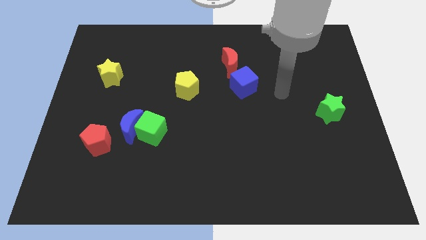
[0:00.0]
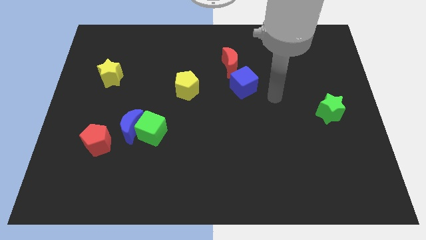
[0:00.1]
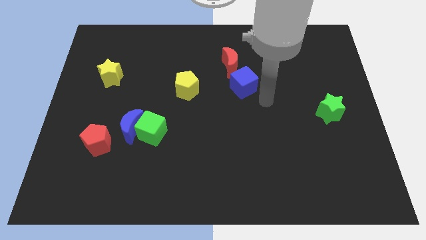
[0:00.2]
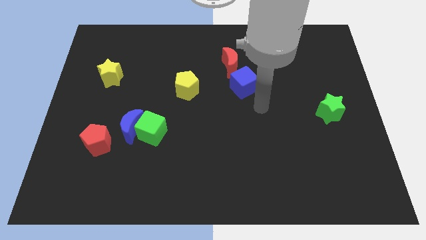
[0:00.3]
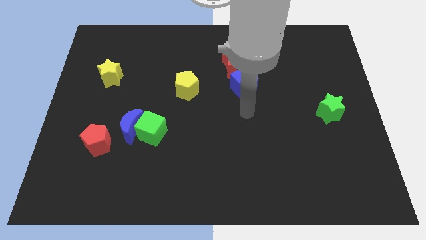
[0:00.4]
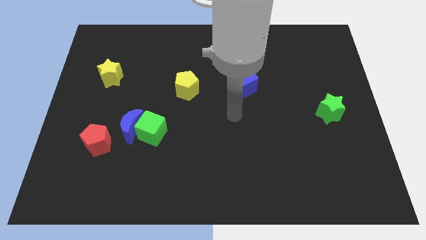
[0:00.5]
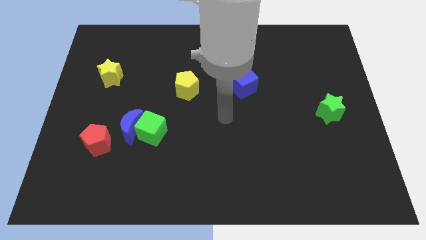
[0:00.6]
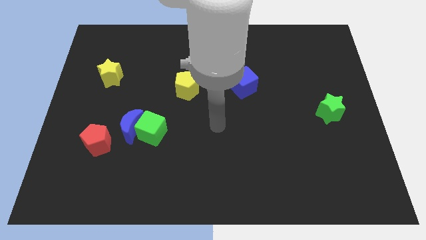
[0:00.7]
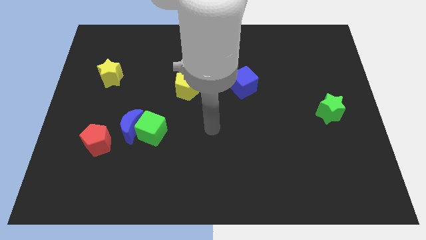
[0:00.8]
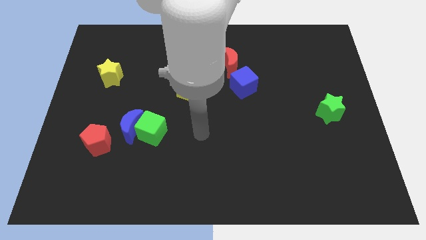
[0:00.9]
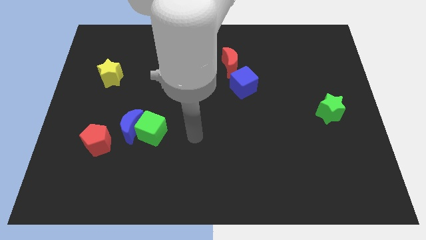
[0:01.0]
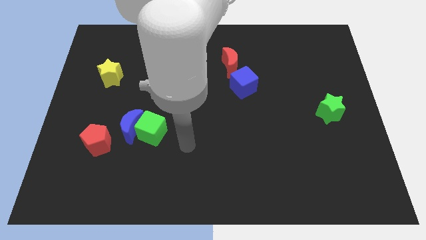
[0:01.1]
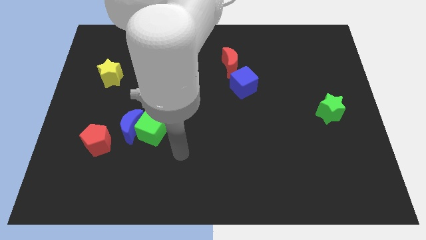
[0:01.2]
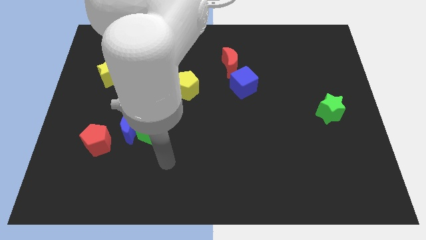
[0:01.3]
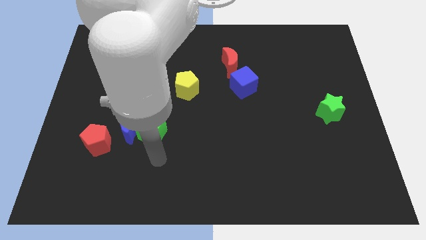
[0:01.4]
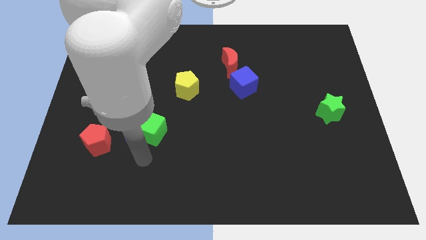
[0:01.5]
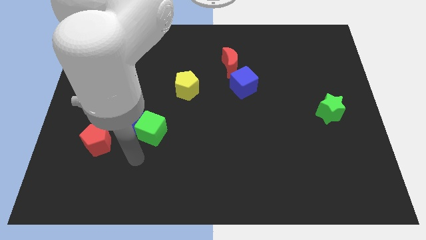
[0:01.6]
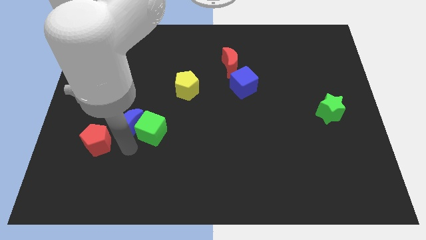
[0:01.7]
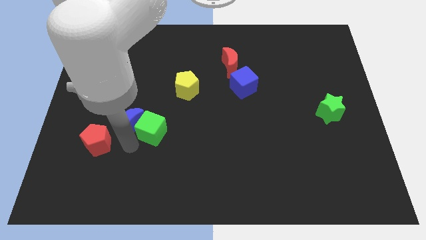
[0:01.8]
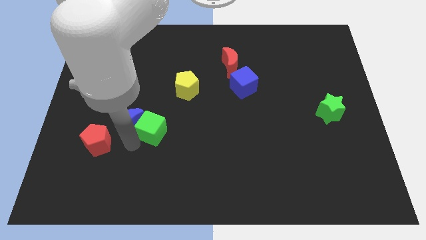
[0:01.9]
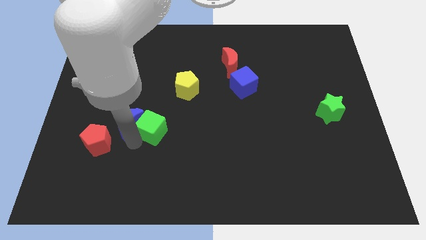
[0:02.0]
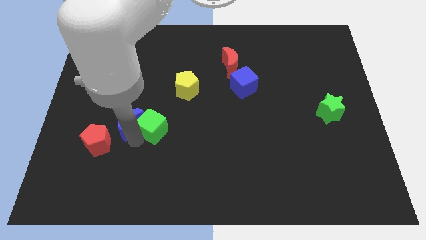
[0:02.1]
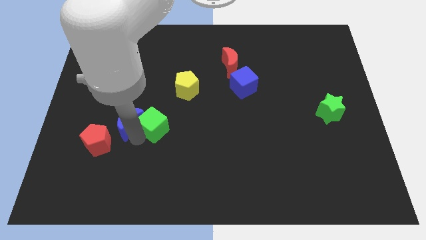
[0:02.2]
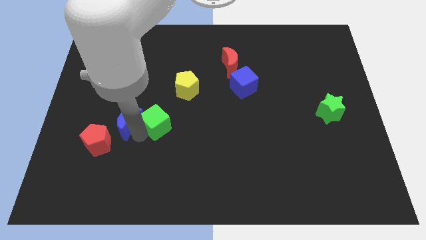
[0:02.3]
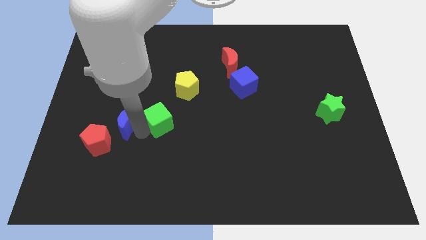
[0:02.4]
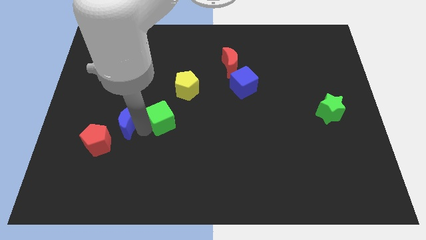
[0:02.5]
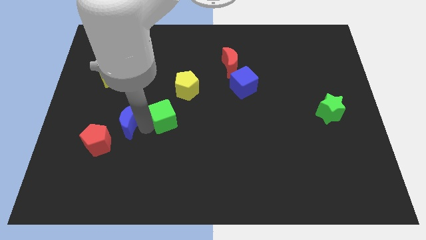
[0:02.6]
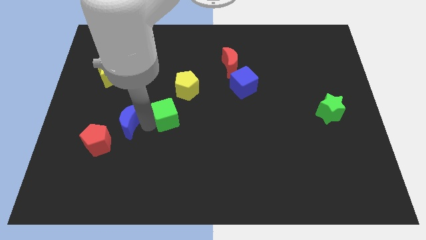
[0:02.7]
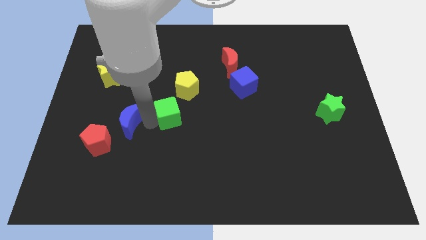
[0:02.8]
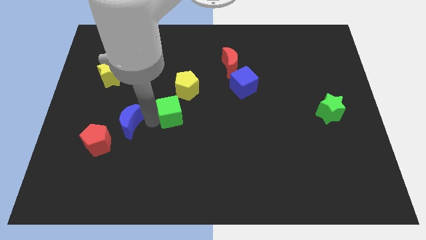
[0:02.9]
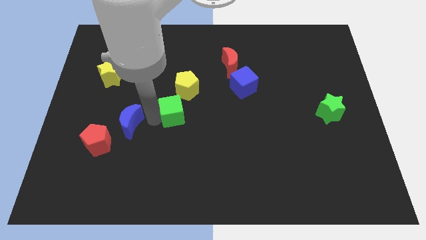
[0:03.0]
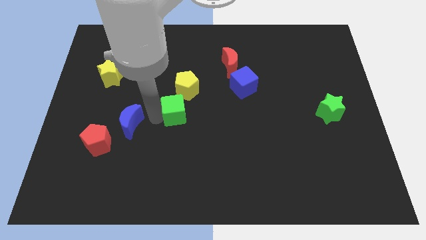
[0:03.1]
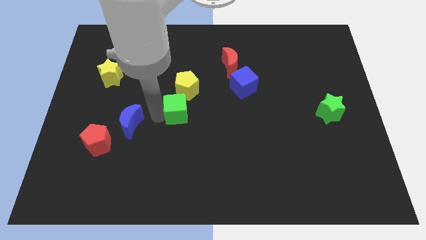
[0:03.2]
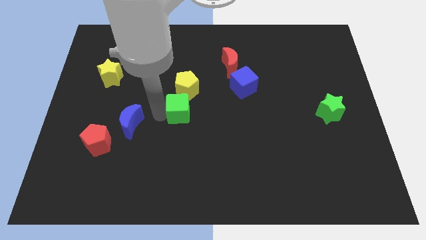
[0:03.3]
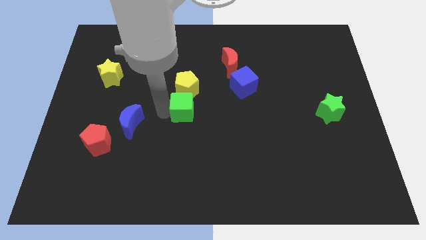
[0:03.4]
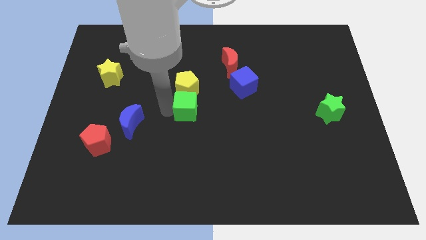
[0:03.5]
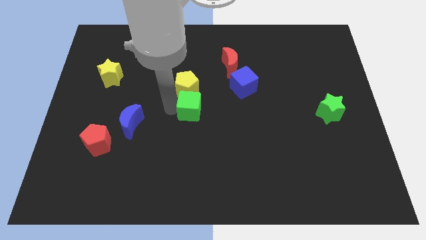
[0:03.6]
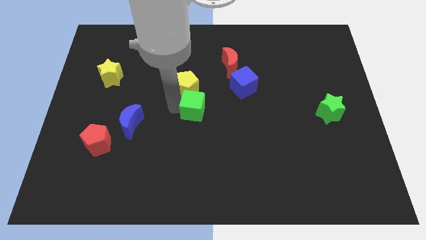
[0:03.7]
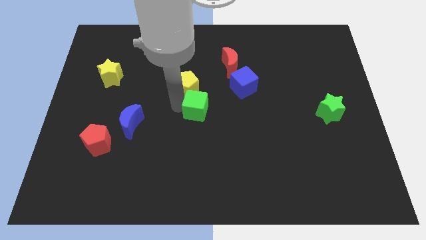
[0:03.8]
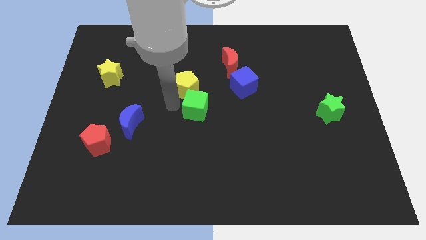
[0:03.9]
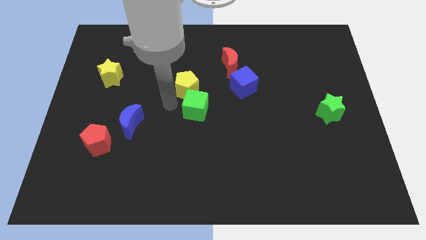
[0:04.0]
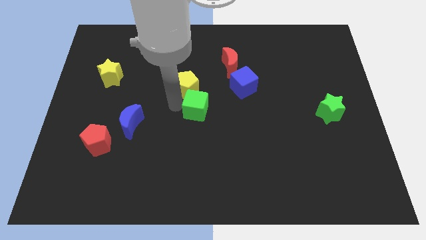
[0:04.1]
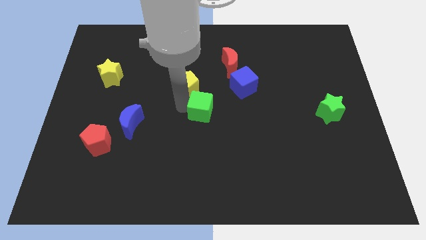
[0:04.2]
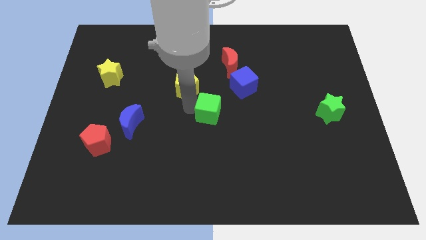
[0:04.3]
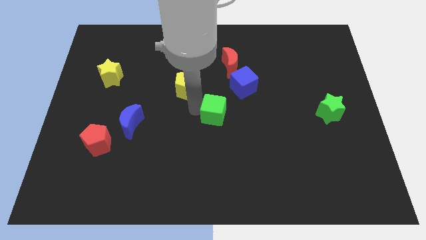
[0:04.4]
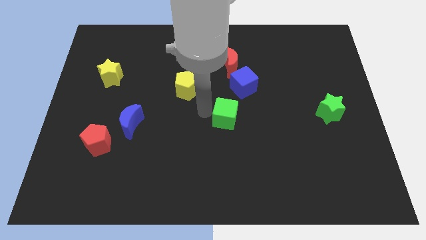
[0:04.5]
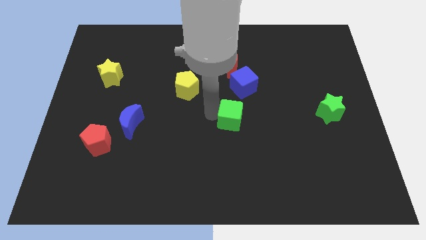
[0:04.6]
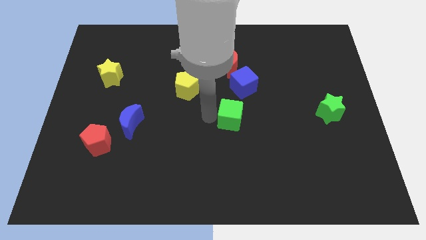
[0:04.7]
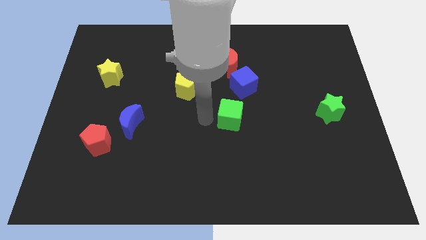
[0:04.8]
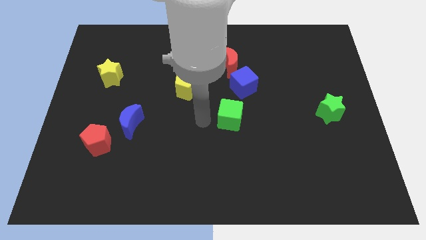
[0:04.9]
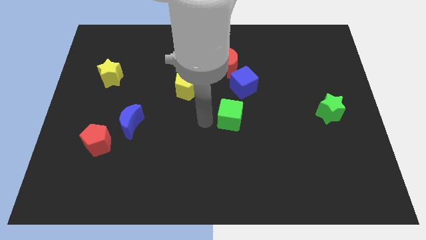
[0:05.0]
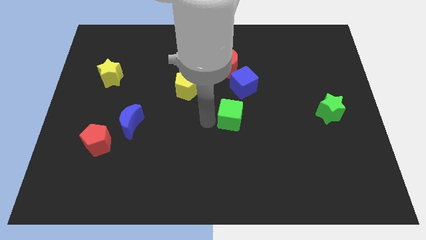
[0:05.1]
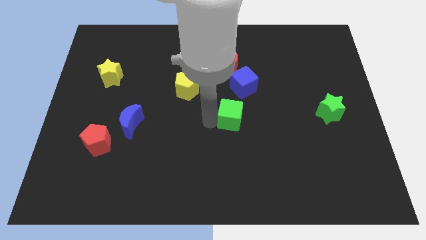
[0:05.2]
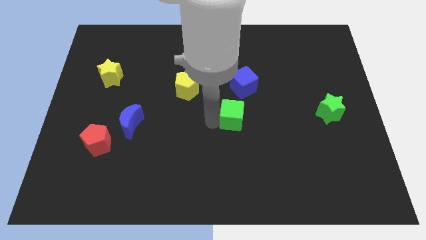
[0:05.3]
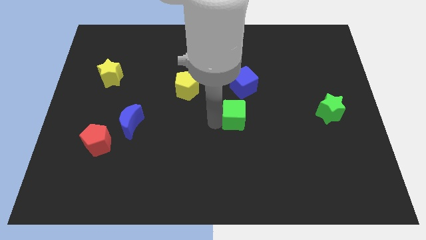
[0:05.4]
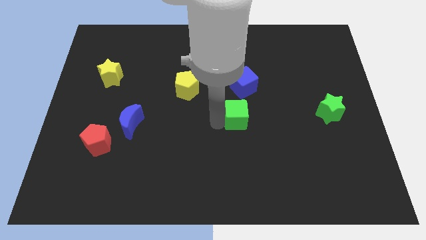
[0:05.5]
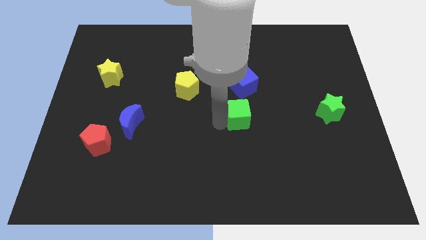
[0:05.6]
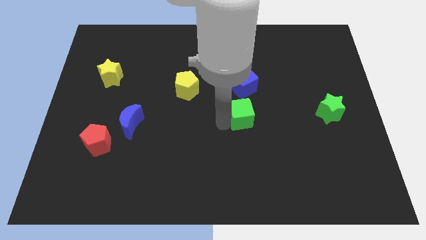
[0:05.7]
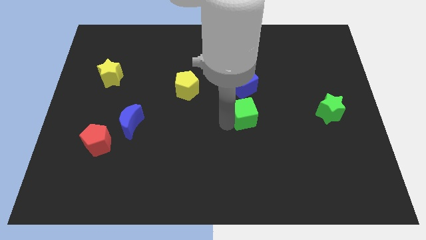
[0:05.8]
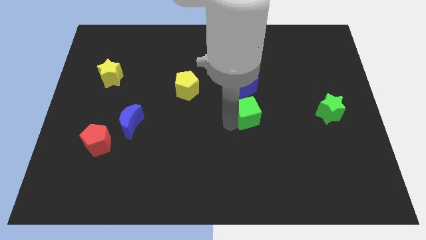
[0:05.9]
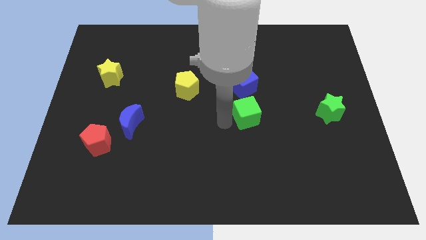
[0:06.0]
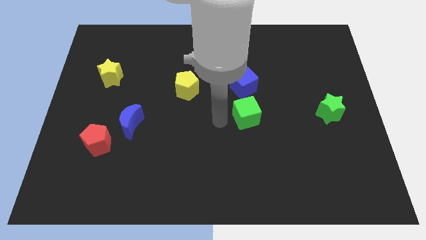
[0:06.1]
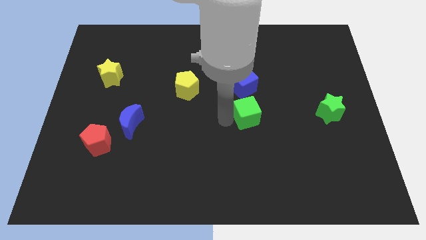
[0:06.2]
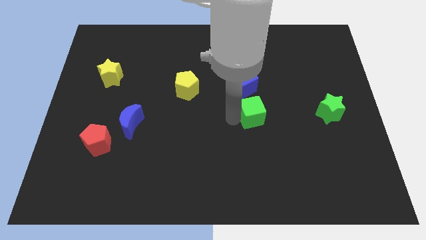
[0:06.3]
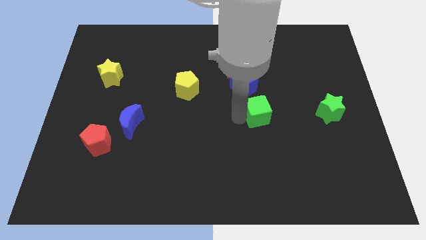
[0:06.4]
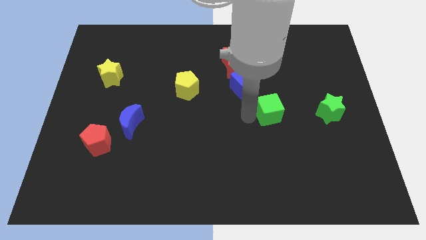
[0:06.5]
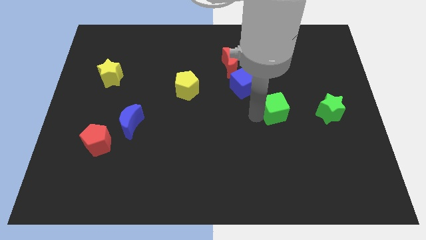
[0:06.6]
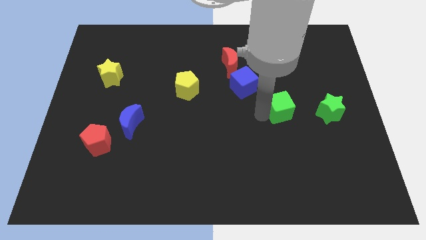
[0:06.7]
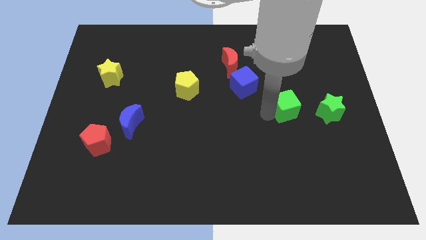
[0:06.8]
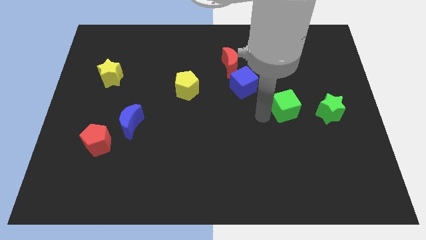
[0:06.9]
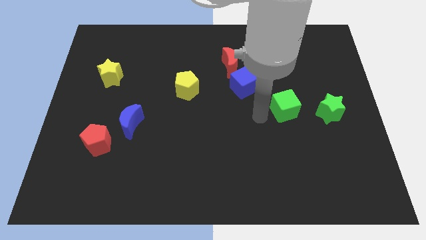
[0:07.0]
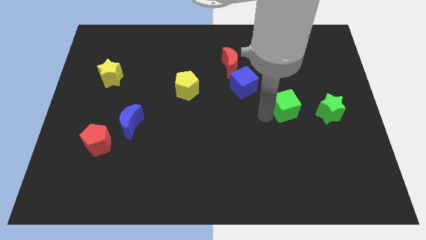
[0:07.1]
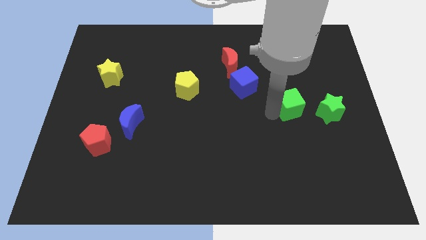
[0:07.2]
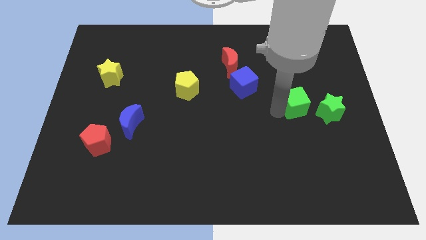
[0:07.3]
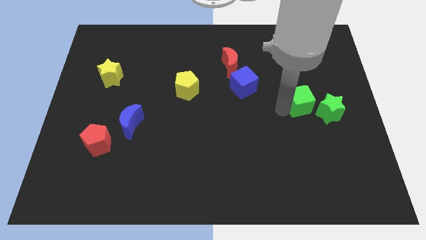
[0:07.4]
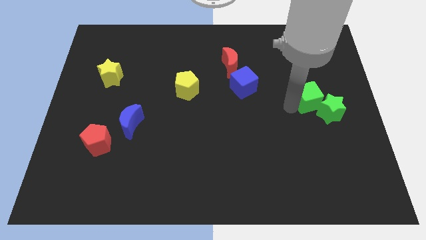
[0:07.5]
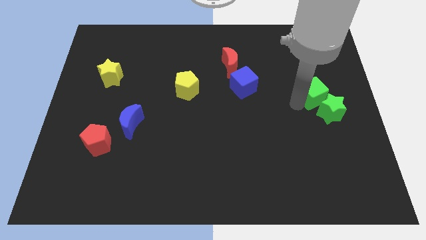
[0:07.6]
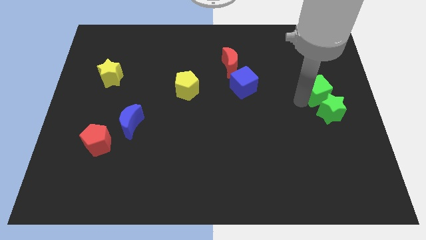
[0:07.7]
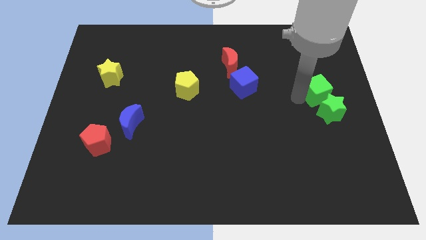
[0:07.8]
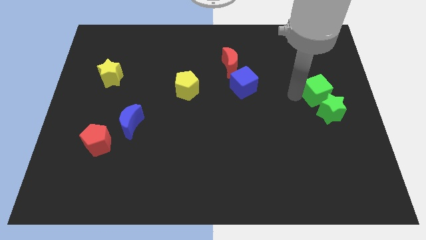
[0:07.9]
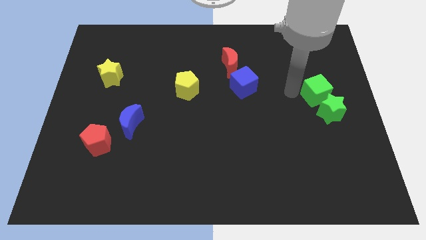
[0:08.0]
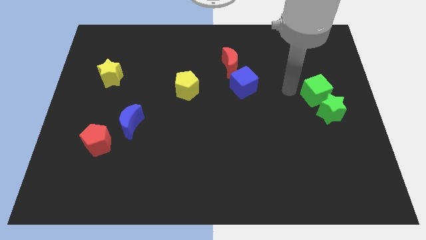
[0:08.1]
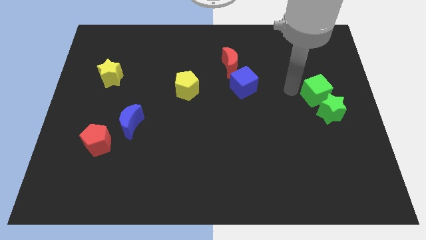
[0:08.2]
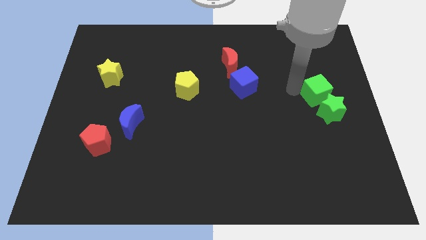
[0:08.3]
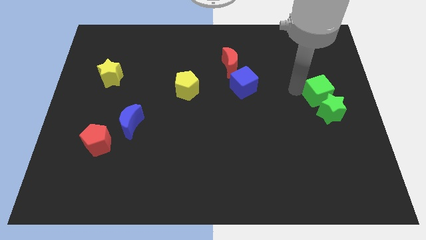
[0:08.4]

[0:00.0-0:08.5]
push the green cube to the right side
